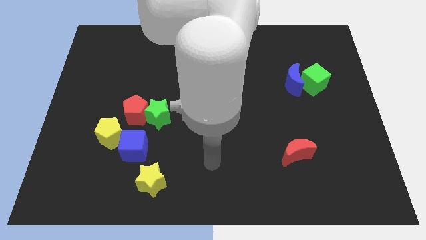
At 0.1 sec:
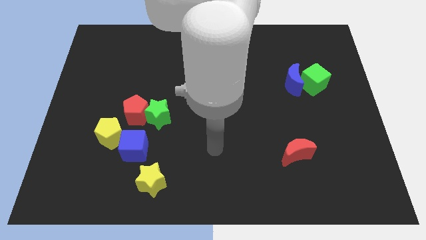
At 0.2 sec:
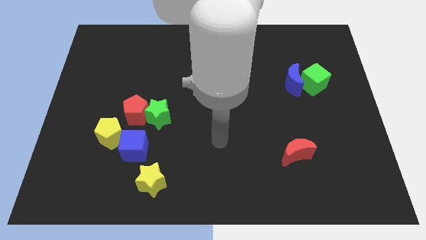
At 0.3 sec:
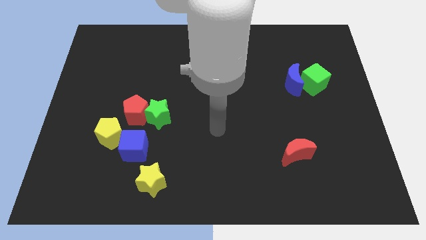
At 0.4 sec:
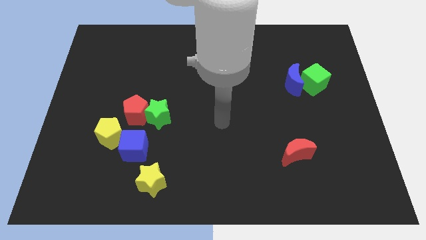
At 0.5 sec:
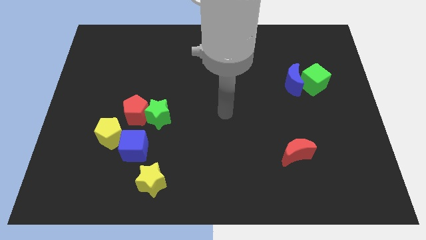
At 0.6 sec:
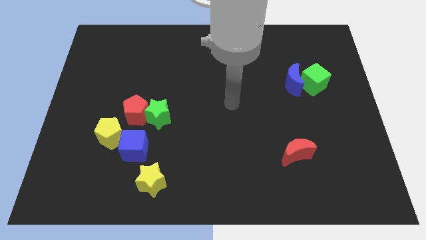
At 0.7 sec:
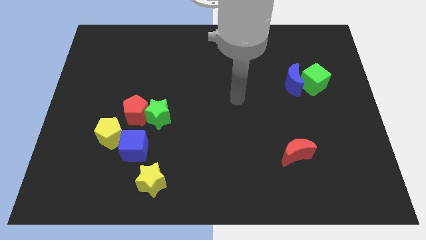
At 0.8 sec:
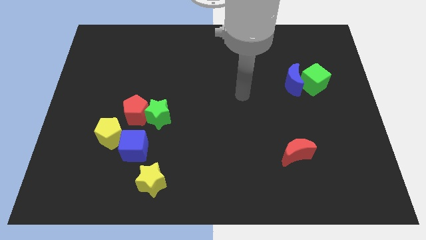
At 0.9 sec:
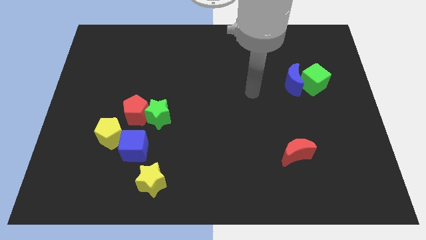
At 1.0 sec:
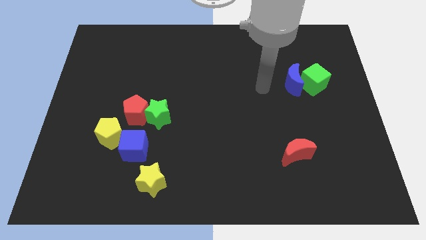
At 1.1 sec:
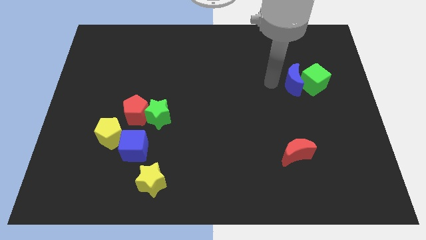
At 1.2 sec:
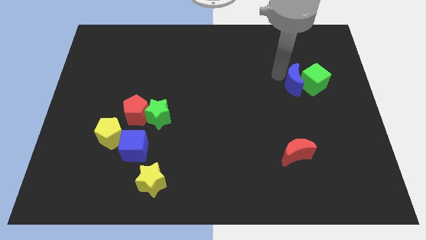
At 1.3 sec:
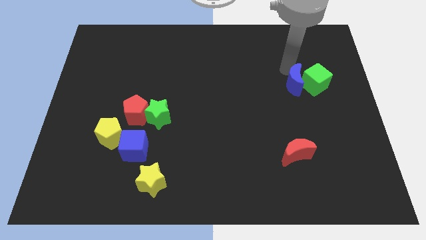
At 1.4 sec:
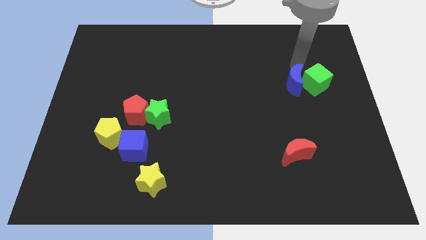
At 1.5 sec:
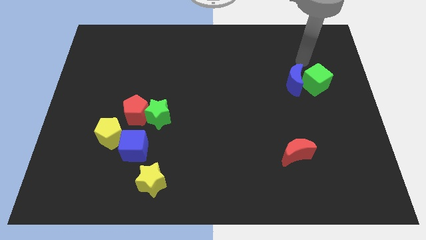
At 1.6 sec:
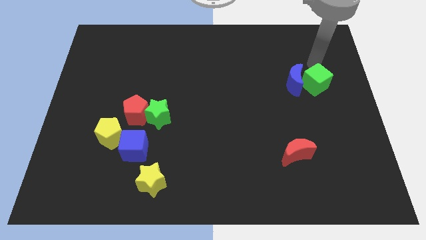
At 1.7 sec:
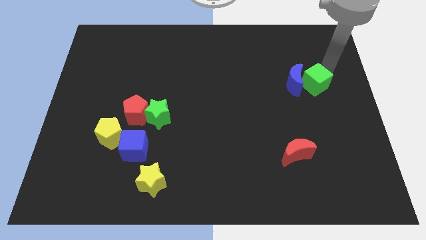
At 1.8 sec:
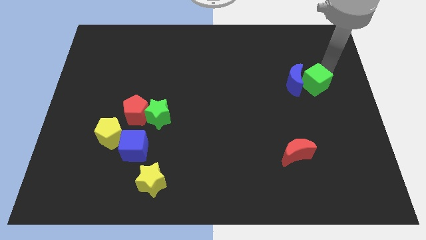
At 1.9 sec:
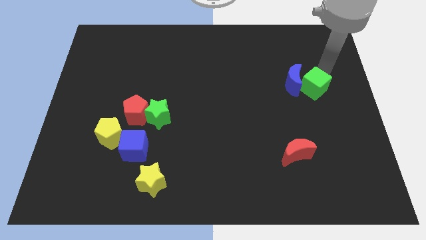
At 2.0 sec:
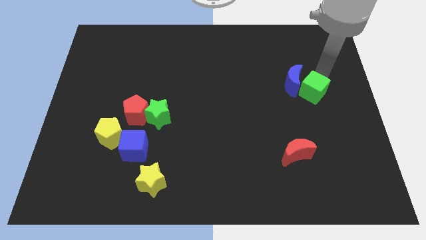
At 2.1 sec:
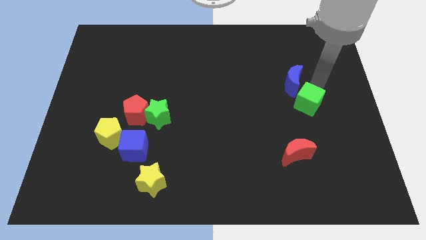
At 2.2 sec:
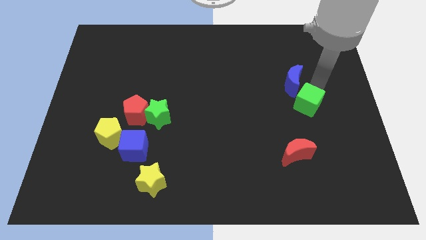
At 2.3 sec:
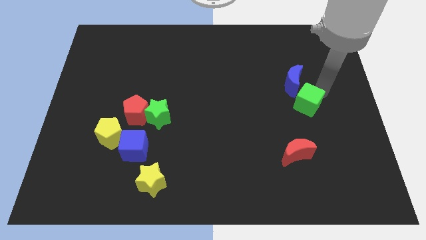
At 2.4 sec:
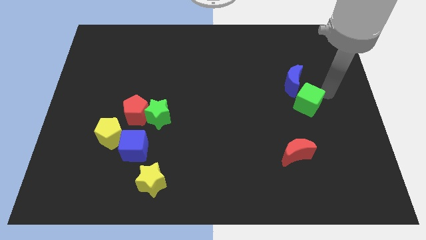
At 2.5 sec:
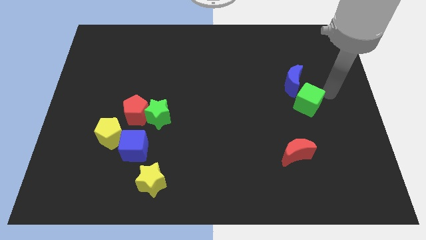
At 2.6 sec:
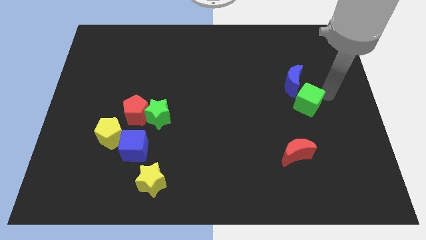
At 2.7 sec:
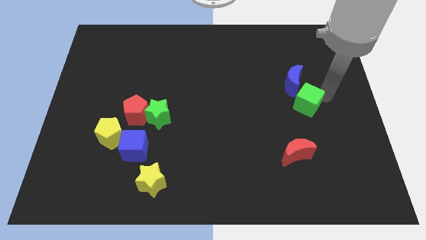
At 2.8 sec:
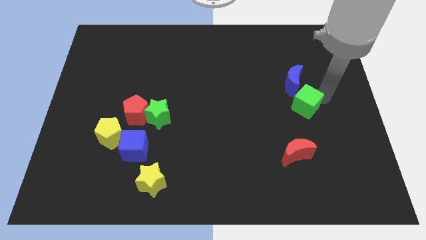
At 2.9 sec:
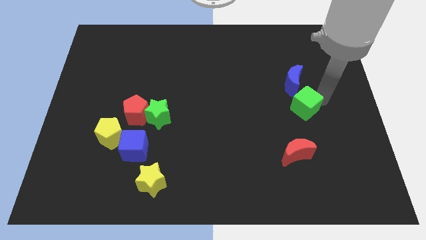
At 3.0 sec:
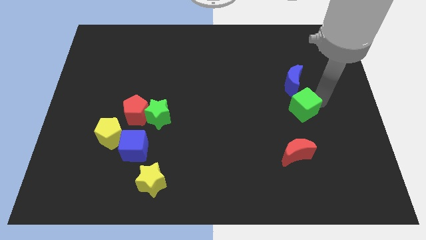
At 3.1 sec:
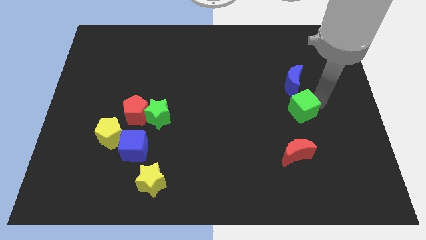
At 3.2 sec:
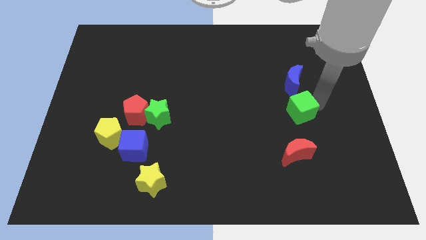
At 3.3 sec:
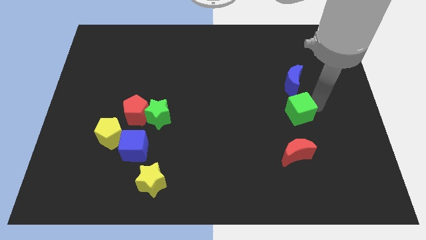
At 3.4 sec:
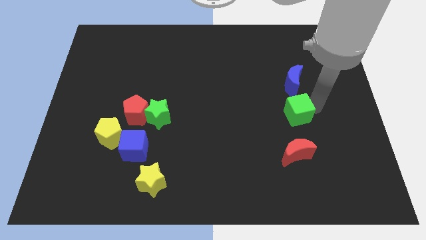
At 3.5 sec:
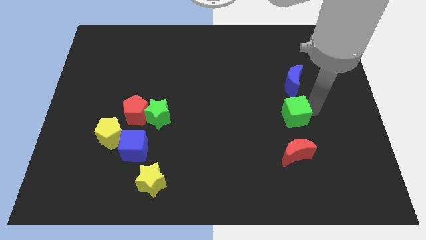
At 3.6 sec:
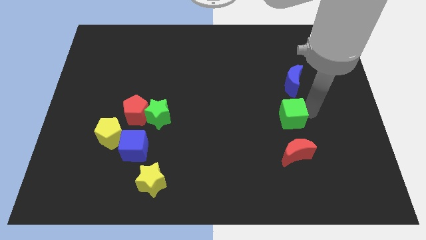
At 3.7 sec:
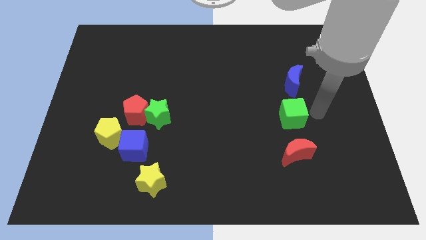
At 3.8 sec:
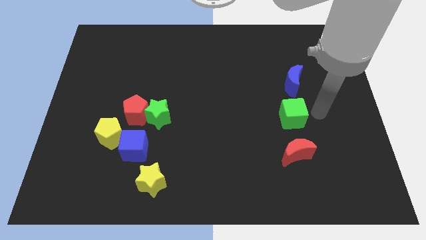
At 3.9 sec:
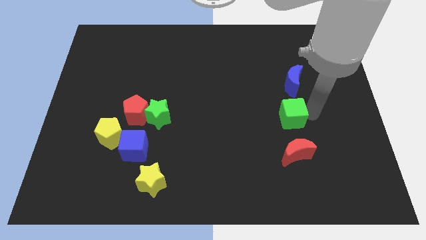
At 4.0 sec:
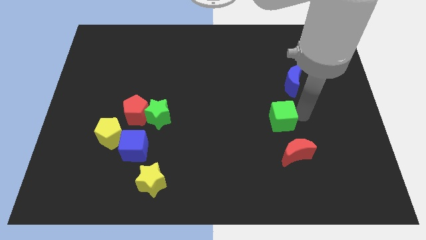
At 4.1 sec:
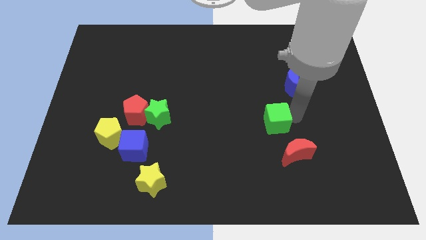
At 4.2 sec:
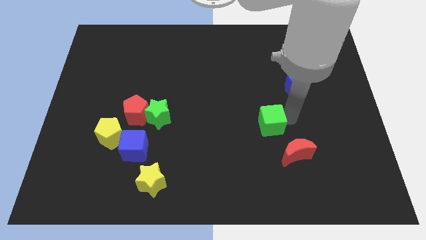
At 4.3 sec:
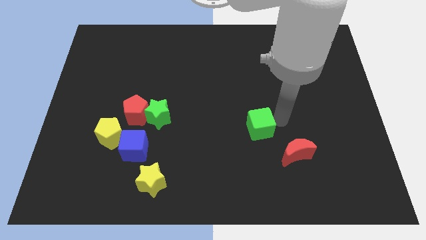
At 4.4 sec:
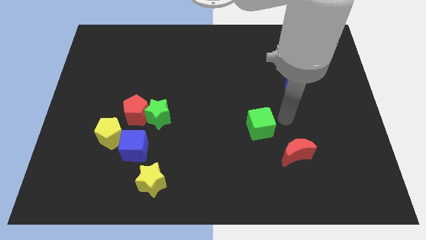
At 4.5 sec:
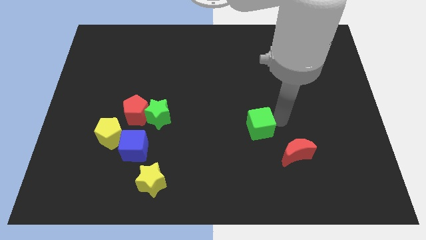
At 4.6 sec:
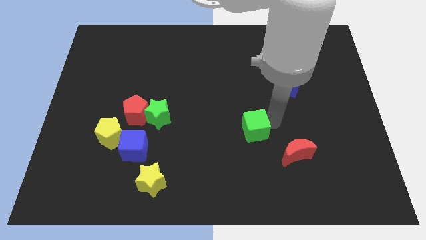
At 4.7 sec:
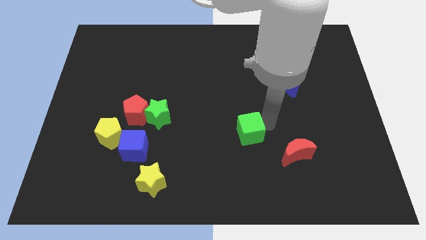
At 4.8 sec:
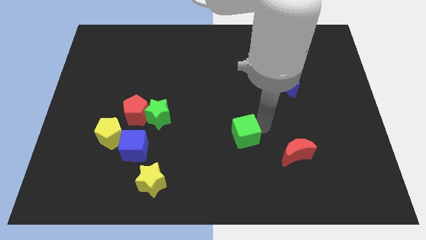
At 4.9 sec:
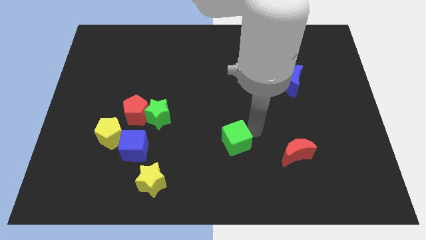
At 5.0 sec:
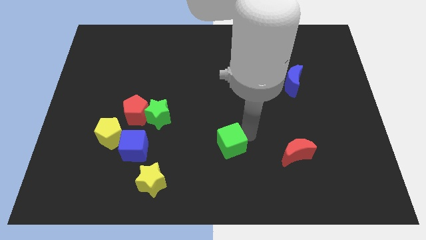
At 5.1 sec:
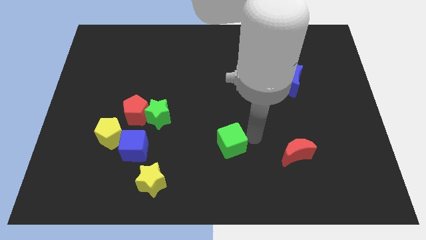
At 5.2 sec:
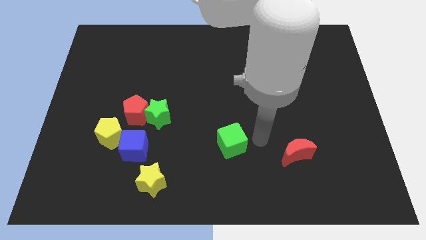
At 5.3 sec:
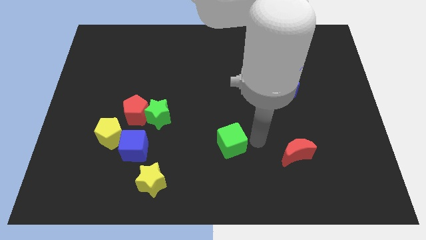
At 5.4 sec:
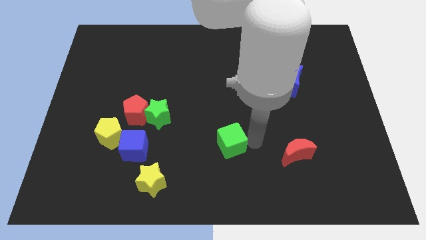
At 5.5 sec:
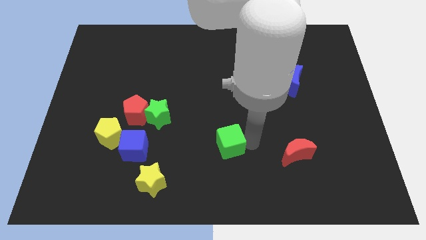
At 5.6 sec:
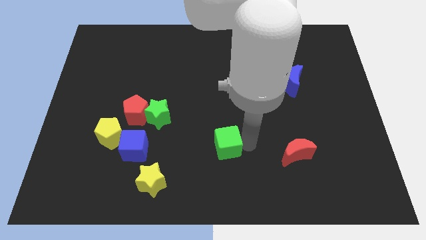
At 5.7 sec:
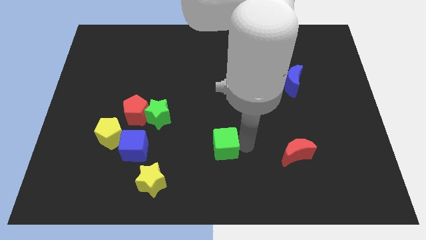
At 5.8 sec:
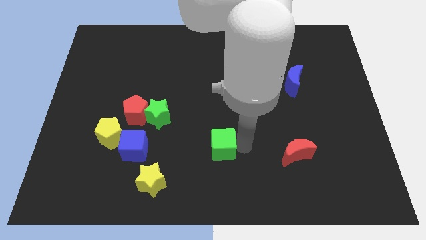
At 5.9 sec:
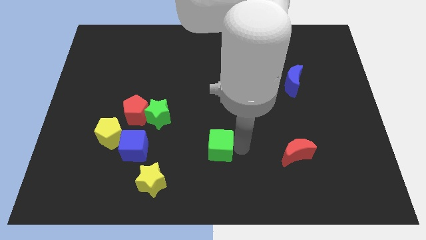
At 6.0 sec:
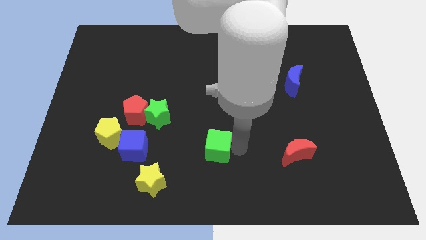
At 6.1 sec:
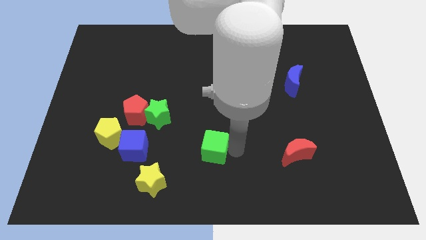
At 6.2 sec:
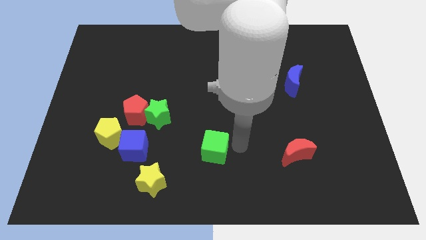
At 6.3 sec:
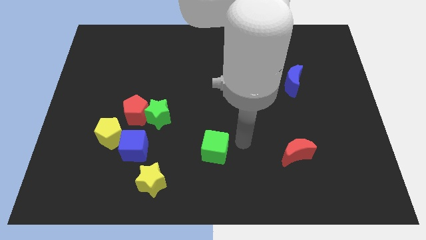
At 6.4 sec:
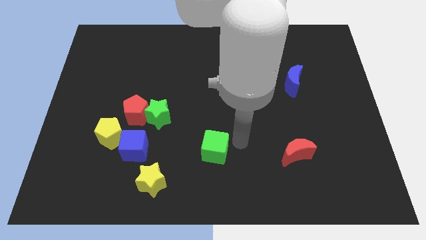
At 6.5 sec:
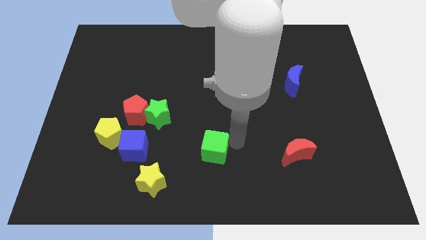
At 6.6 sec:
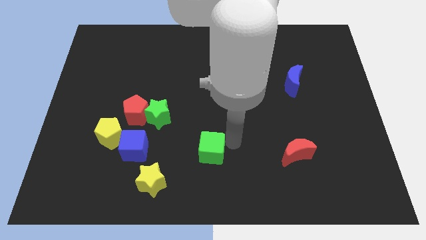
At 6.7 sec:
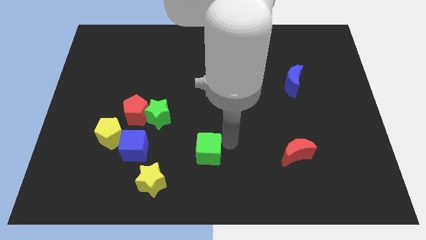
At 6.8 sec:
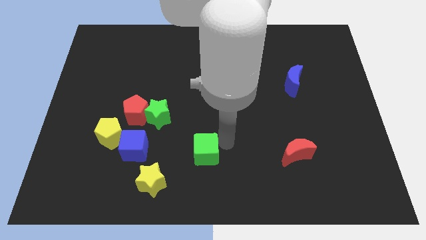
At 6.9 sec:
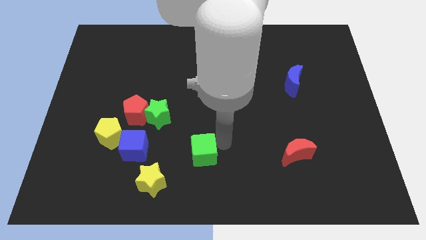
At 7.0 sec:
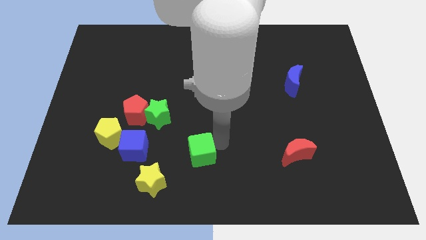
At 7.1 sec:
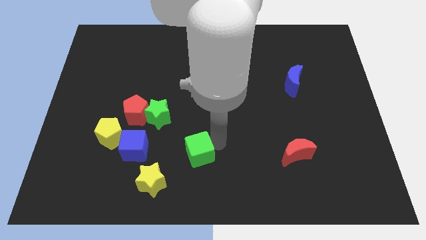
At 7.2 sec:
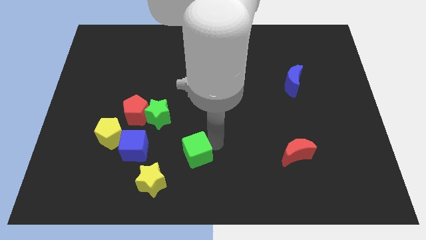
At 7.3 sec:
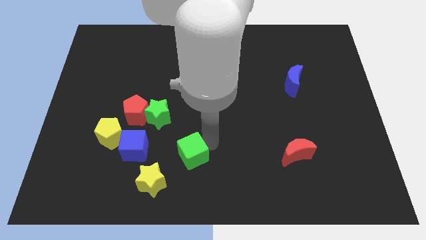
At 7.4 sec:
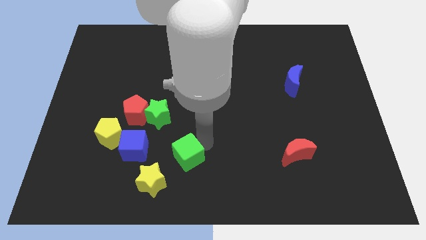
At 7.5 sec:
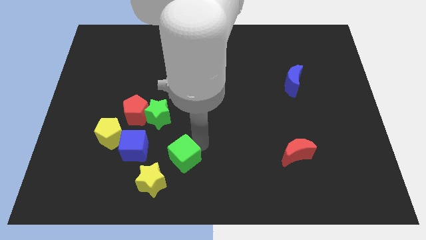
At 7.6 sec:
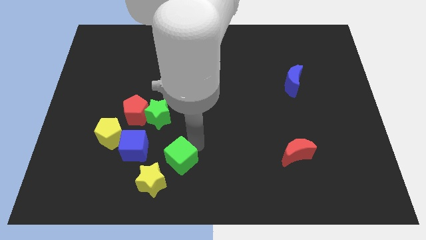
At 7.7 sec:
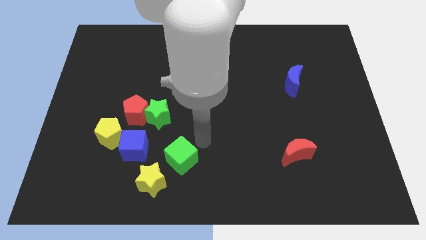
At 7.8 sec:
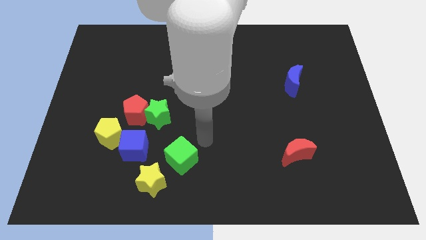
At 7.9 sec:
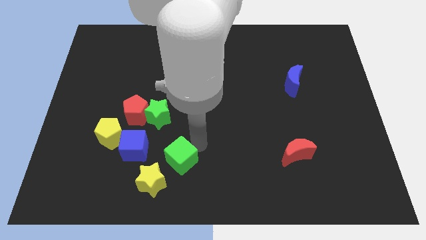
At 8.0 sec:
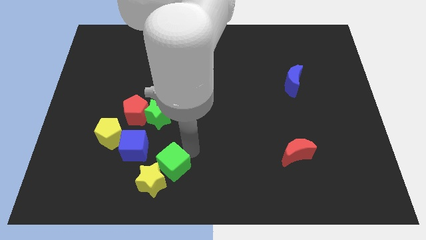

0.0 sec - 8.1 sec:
move the green cube next to the yellow star
